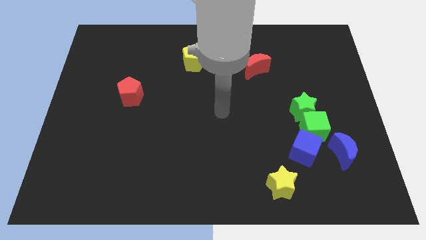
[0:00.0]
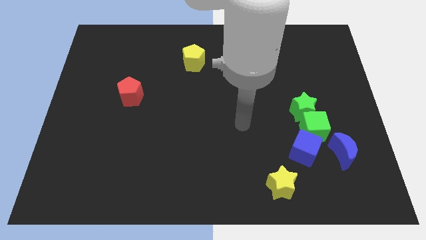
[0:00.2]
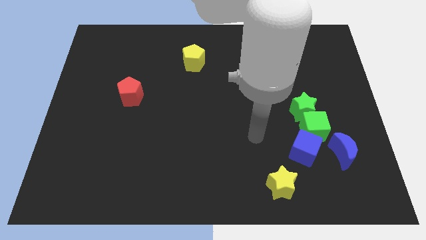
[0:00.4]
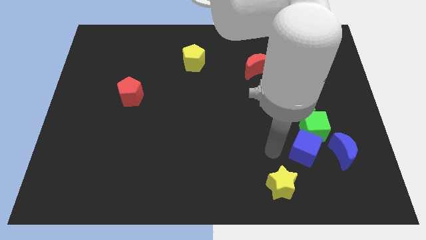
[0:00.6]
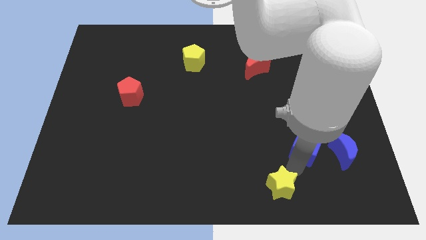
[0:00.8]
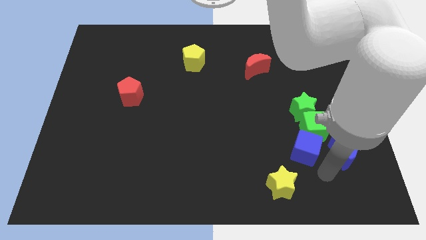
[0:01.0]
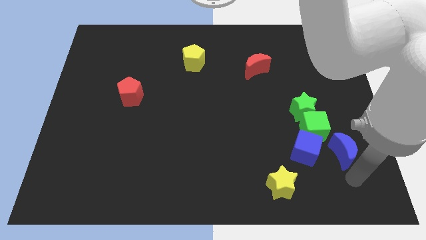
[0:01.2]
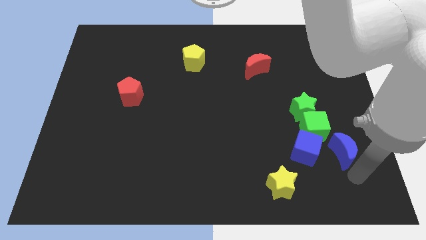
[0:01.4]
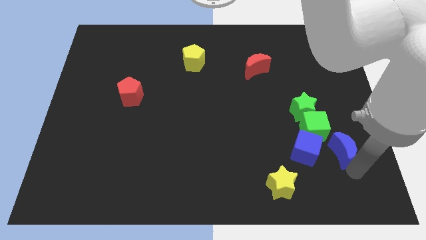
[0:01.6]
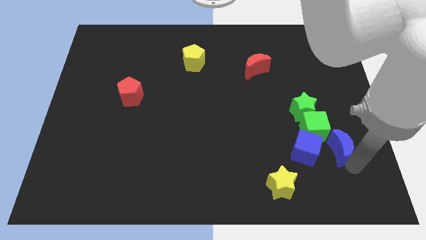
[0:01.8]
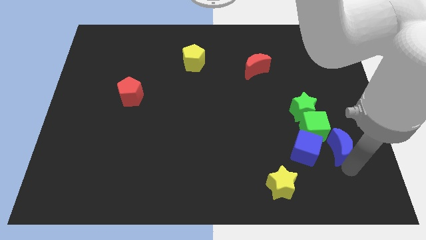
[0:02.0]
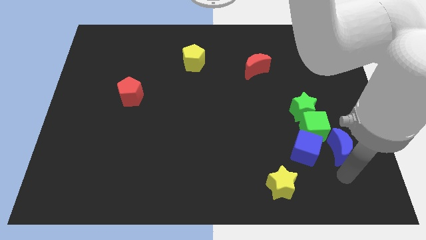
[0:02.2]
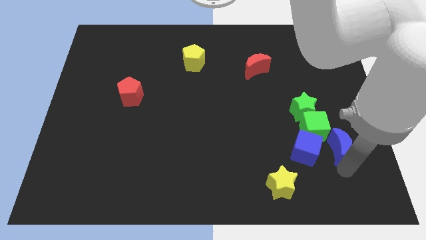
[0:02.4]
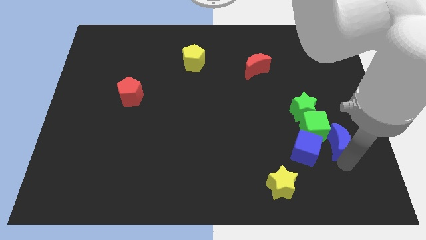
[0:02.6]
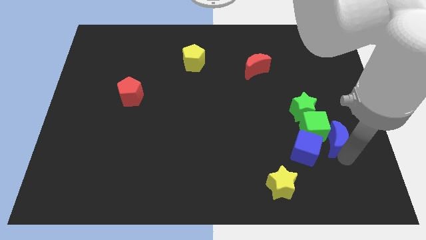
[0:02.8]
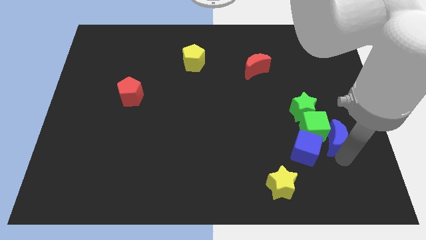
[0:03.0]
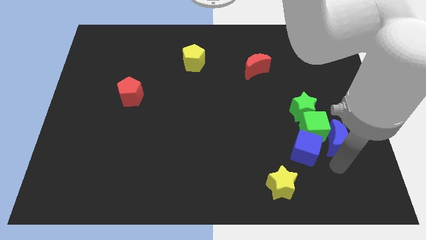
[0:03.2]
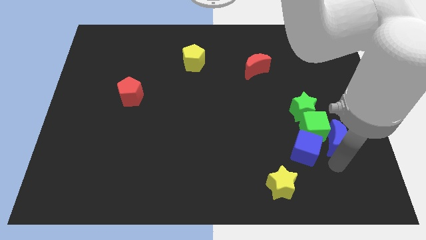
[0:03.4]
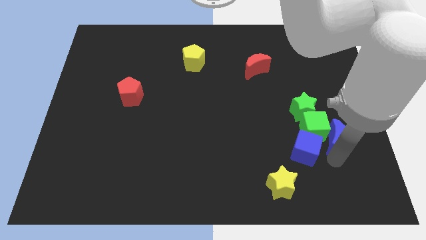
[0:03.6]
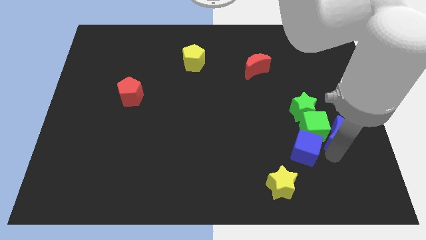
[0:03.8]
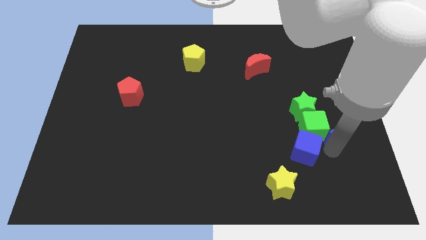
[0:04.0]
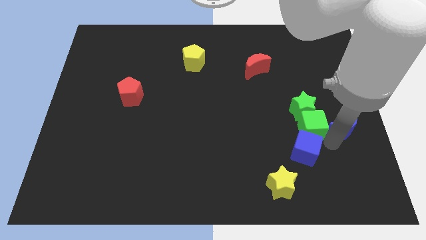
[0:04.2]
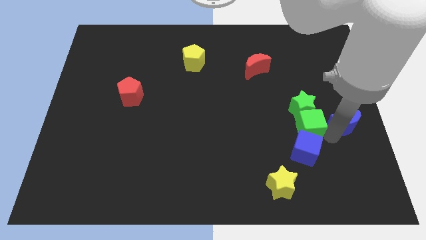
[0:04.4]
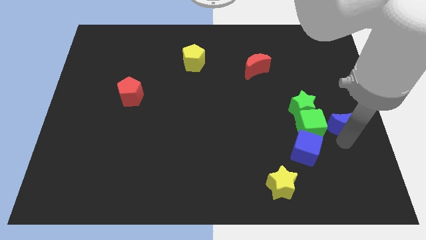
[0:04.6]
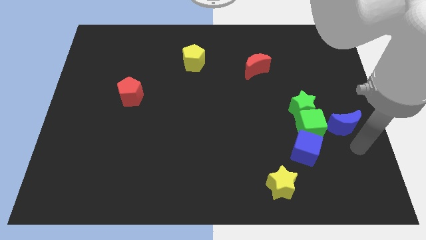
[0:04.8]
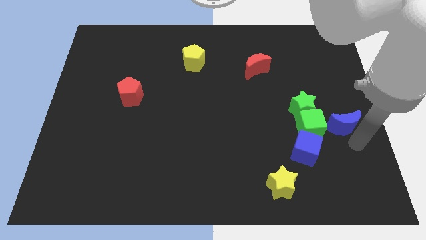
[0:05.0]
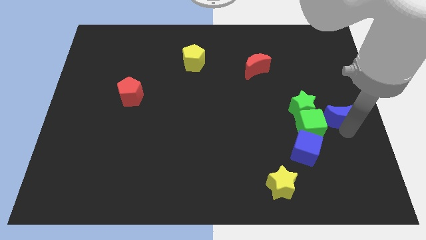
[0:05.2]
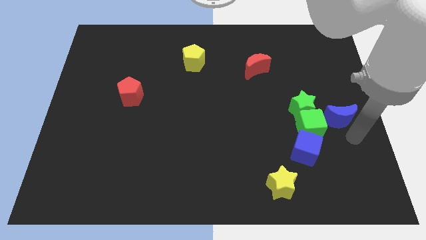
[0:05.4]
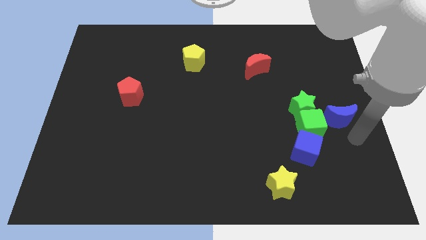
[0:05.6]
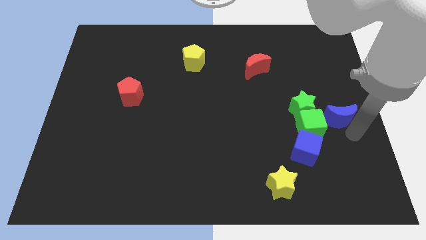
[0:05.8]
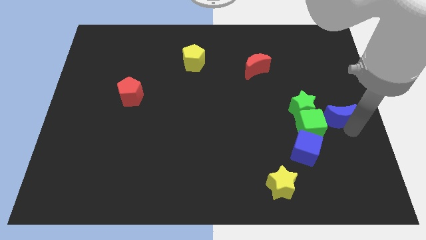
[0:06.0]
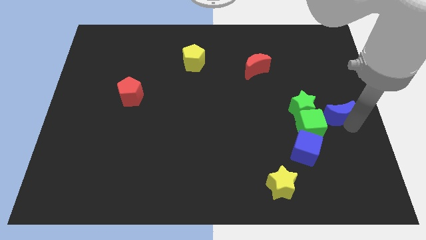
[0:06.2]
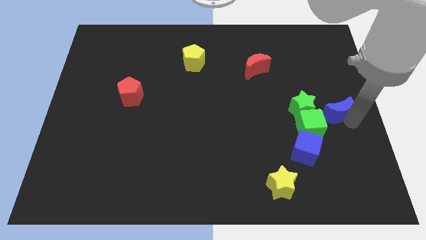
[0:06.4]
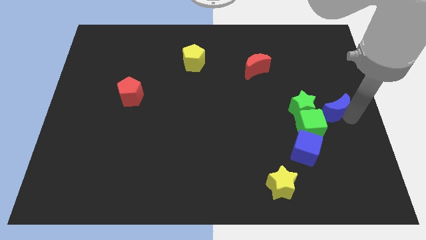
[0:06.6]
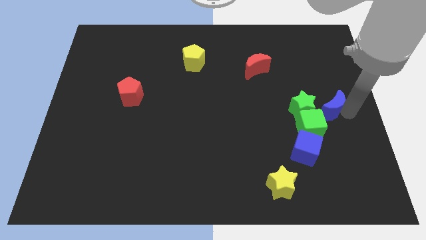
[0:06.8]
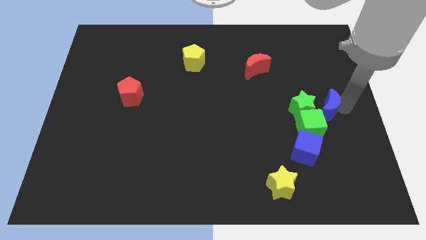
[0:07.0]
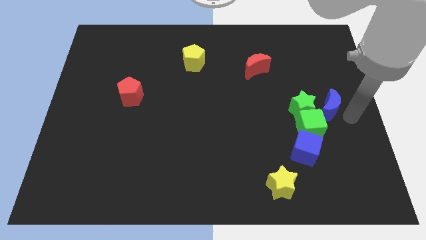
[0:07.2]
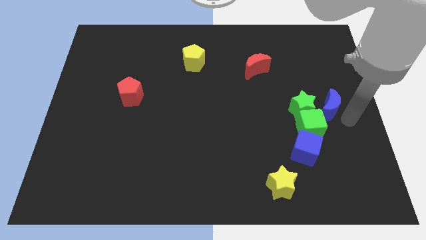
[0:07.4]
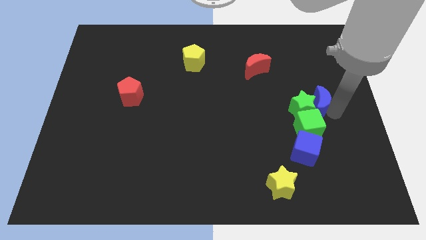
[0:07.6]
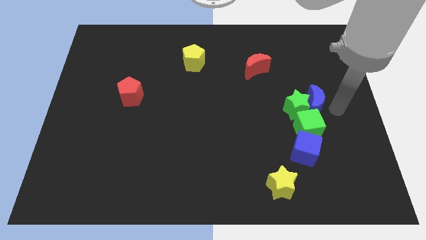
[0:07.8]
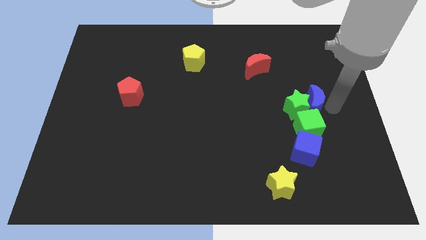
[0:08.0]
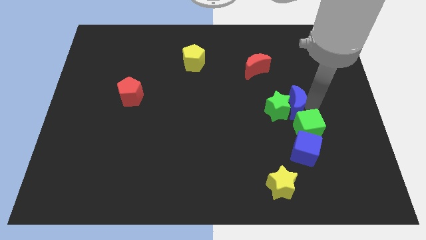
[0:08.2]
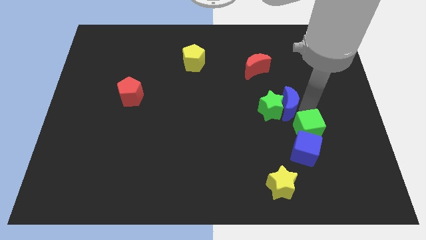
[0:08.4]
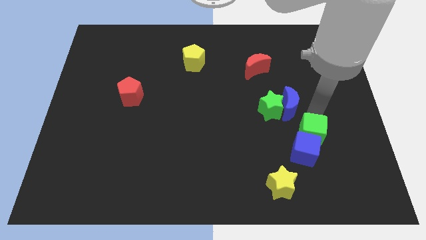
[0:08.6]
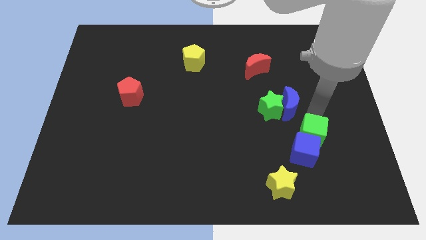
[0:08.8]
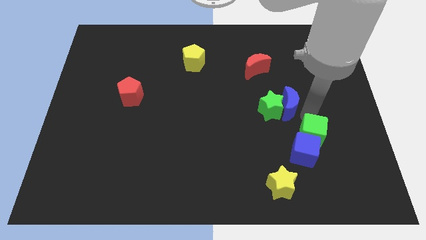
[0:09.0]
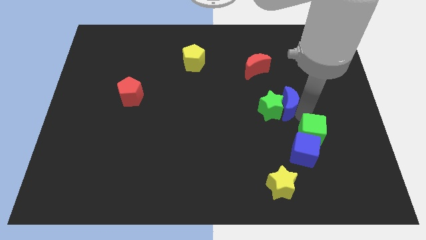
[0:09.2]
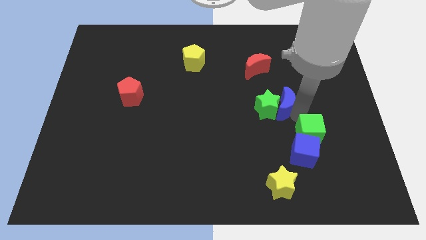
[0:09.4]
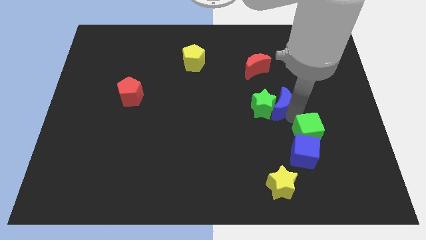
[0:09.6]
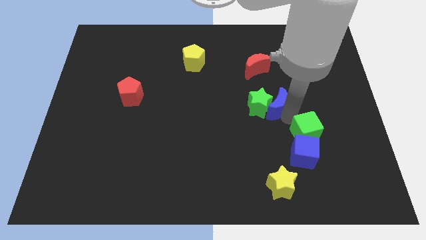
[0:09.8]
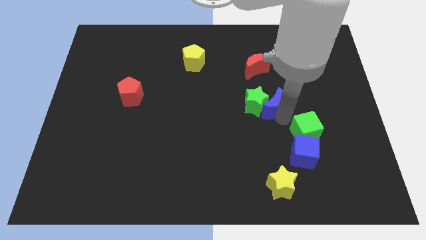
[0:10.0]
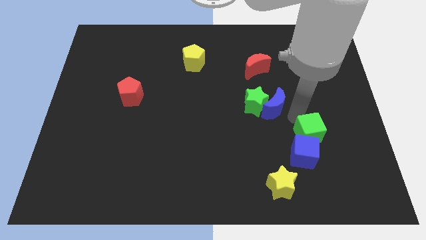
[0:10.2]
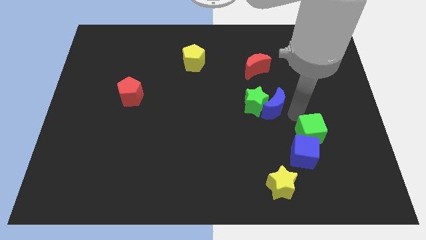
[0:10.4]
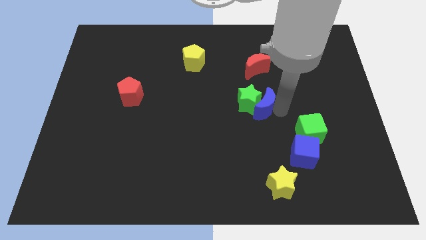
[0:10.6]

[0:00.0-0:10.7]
slide the blue moon to the middle of the board

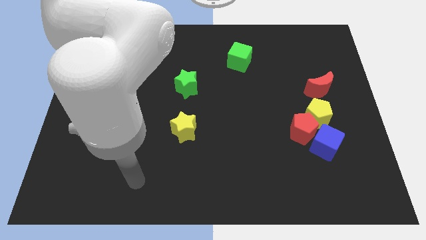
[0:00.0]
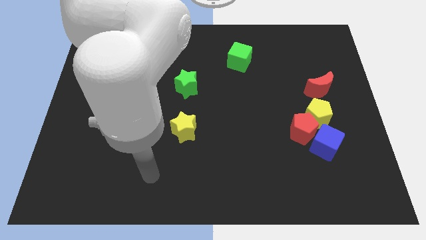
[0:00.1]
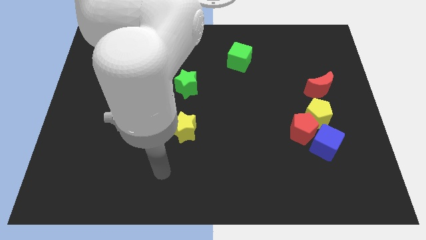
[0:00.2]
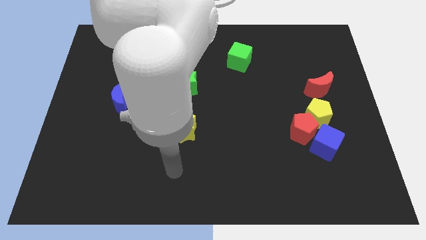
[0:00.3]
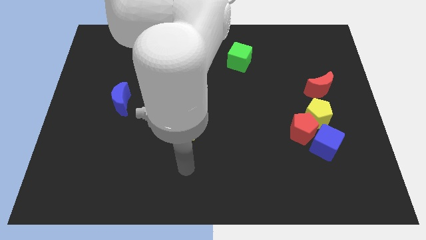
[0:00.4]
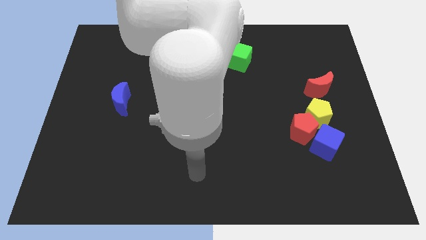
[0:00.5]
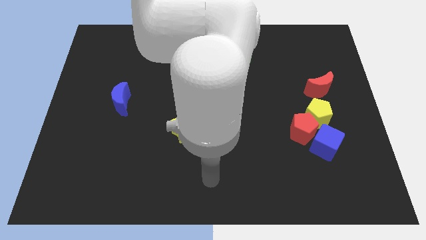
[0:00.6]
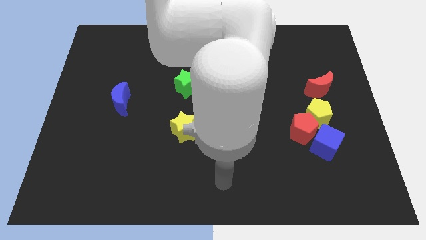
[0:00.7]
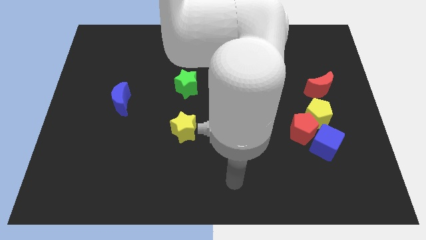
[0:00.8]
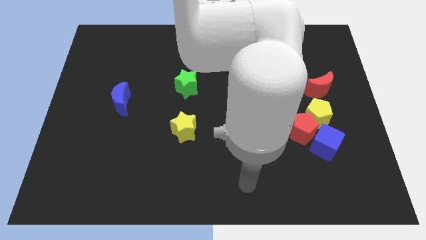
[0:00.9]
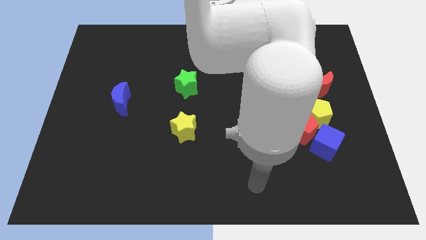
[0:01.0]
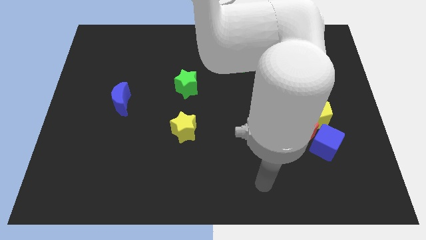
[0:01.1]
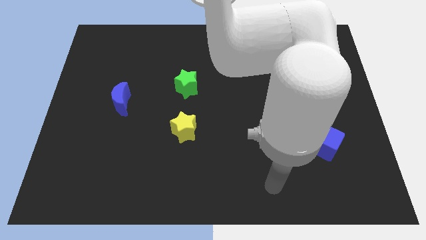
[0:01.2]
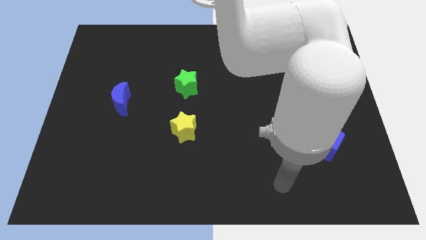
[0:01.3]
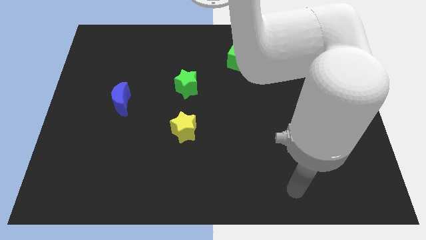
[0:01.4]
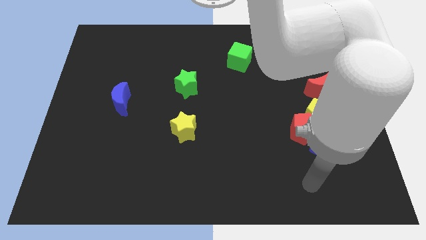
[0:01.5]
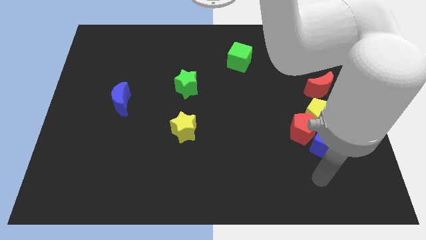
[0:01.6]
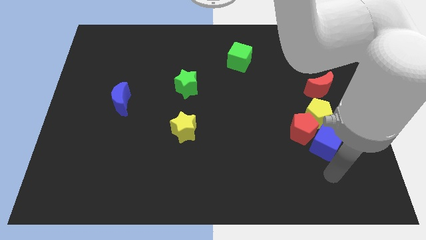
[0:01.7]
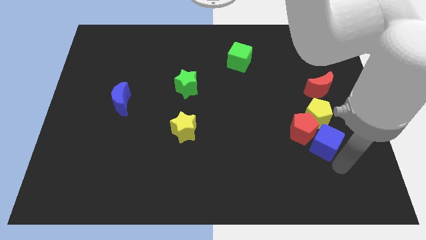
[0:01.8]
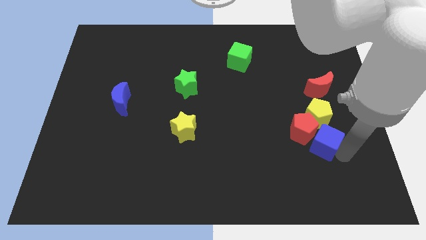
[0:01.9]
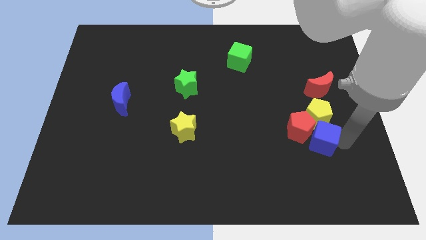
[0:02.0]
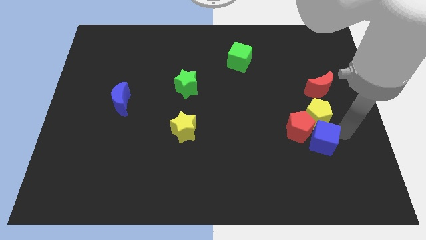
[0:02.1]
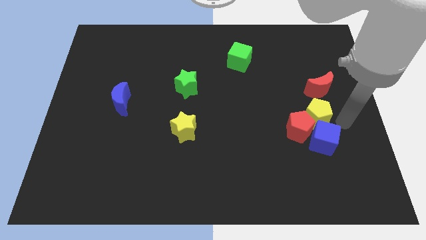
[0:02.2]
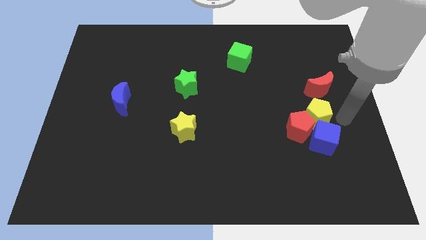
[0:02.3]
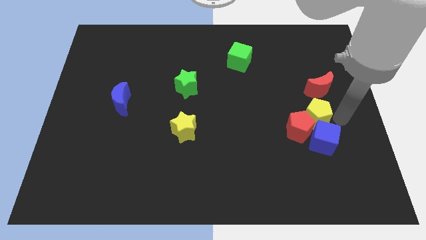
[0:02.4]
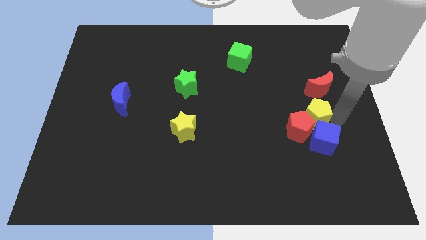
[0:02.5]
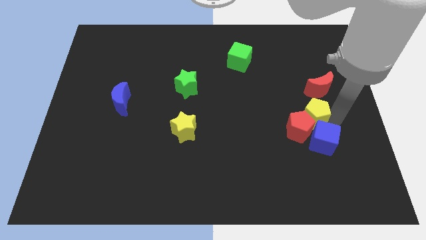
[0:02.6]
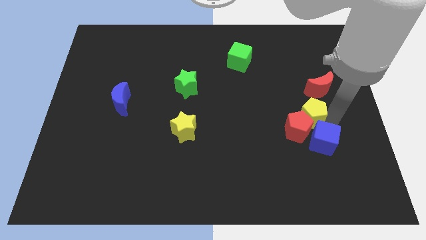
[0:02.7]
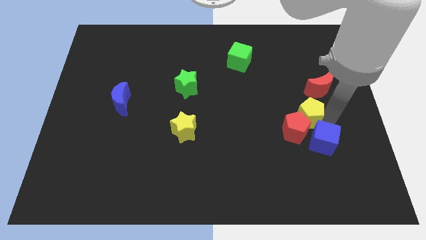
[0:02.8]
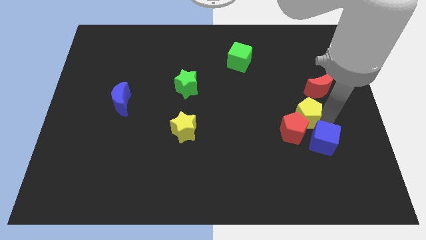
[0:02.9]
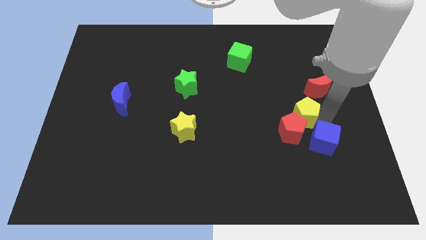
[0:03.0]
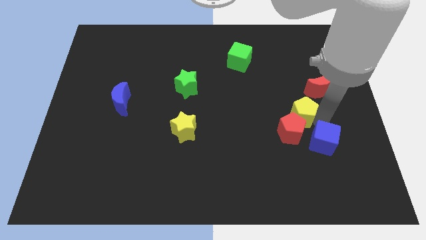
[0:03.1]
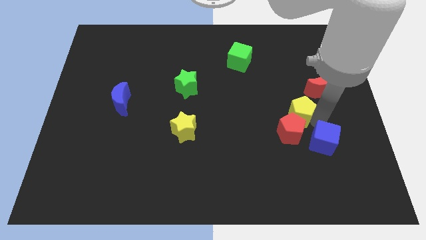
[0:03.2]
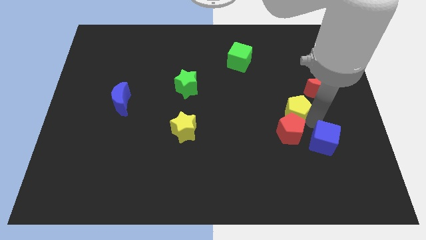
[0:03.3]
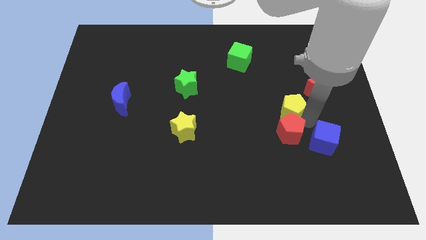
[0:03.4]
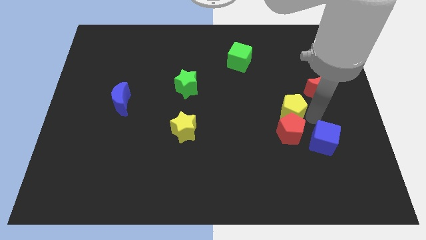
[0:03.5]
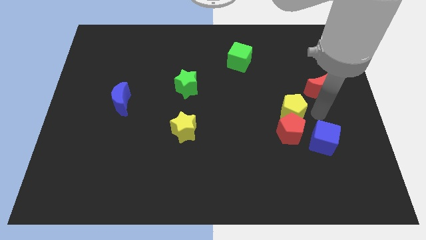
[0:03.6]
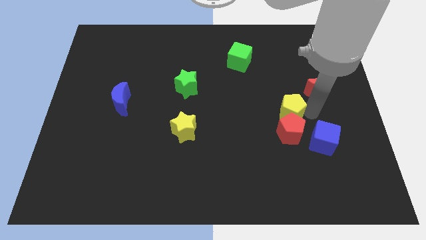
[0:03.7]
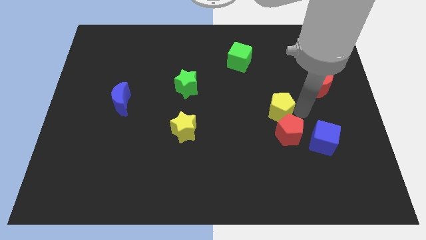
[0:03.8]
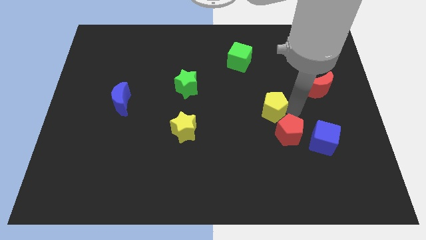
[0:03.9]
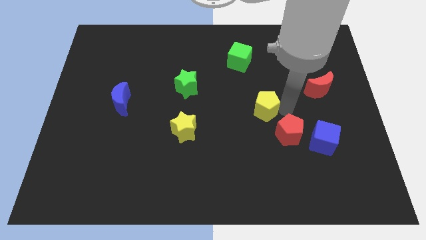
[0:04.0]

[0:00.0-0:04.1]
slide the yellow pentagon to the middle of the board
